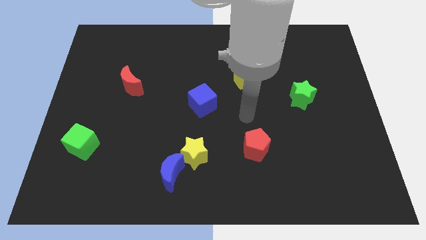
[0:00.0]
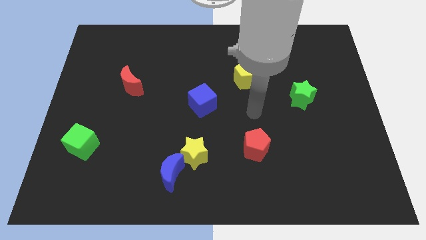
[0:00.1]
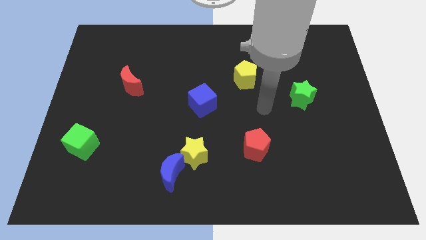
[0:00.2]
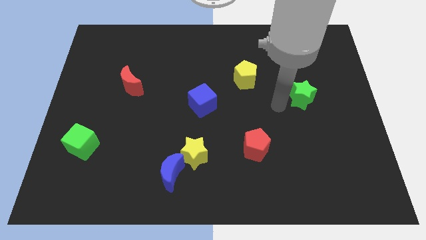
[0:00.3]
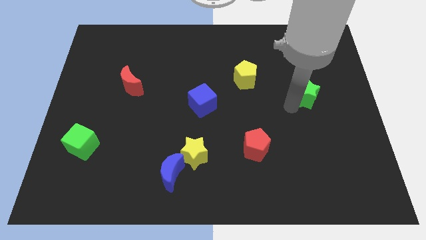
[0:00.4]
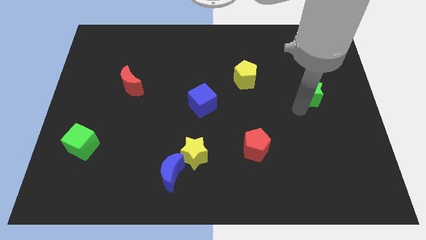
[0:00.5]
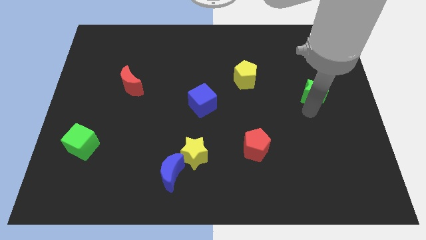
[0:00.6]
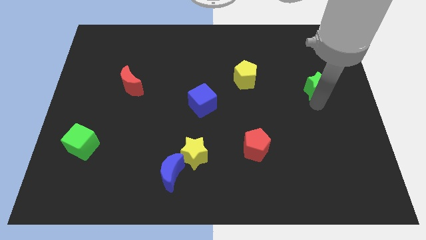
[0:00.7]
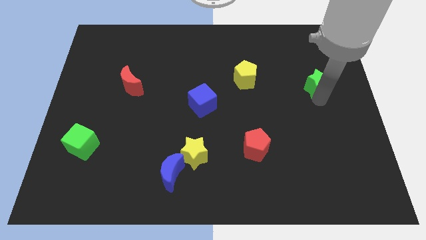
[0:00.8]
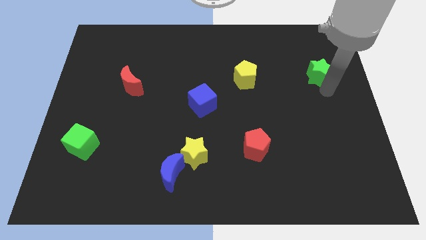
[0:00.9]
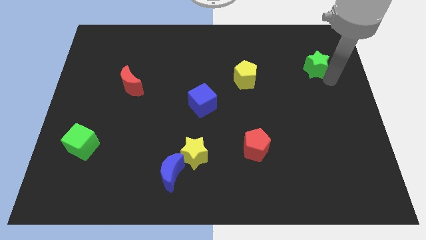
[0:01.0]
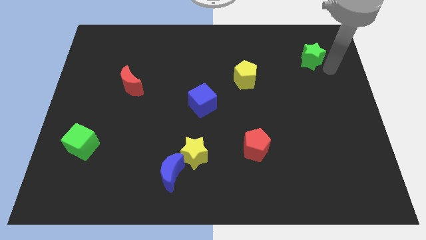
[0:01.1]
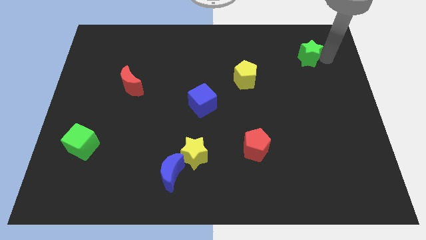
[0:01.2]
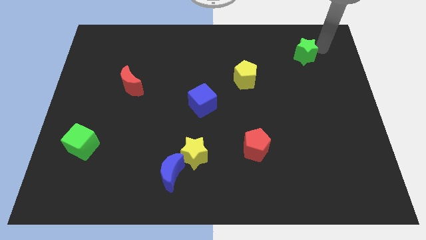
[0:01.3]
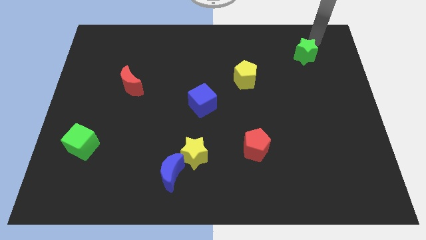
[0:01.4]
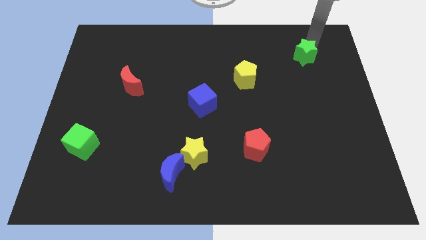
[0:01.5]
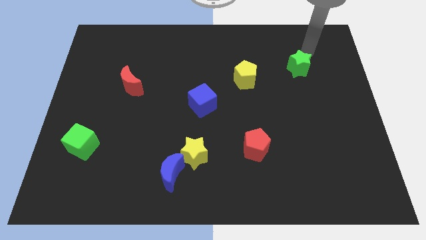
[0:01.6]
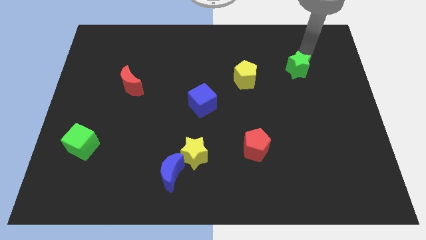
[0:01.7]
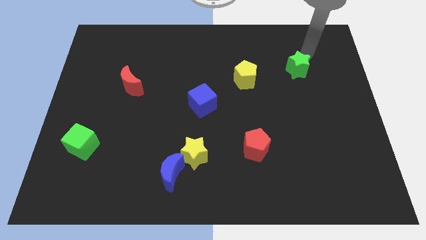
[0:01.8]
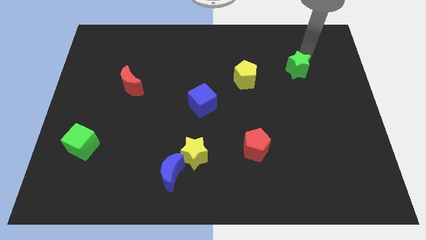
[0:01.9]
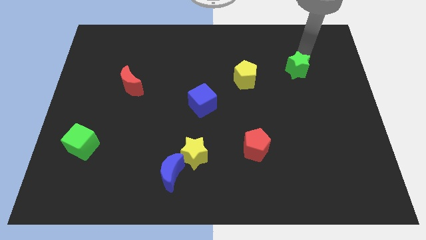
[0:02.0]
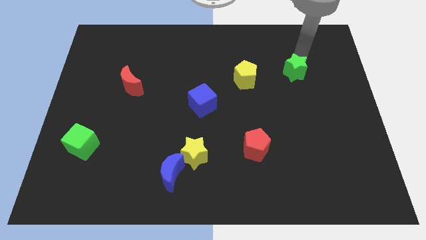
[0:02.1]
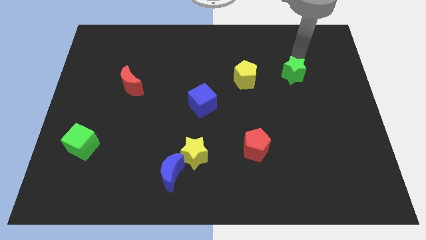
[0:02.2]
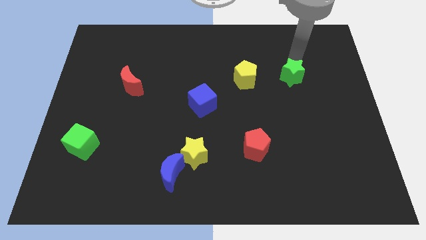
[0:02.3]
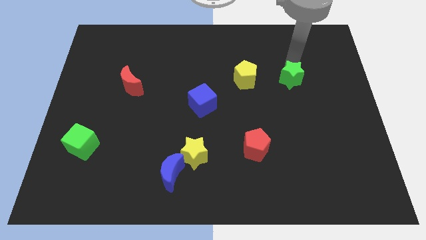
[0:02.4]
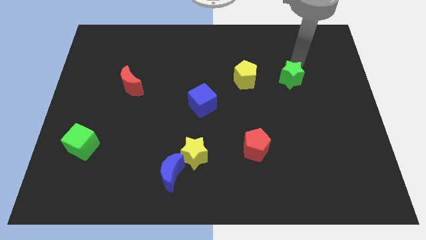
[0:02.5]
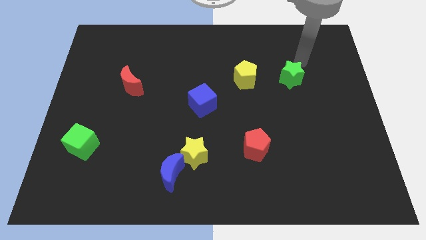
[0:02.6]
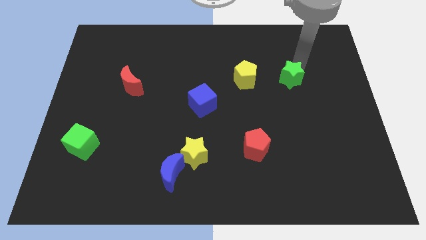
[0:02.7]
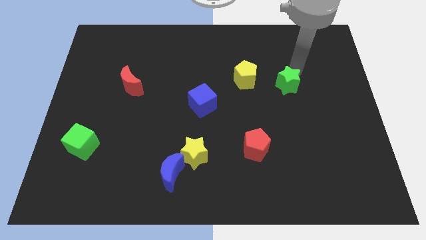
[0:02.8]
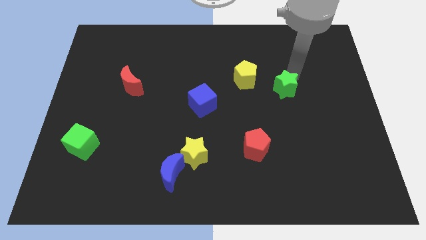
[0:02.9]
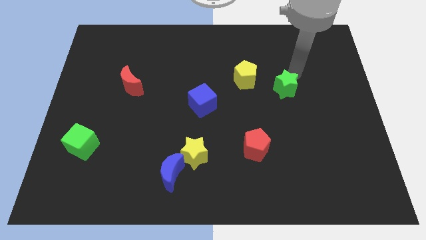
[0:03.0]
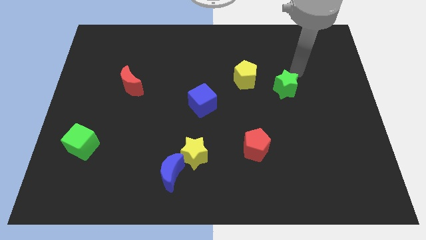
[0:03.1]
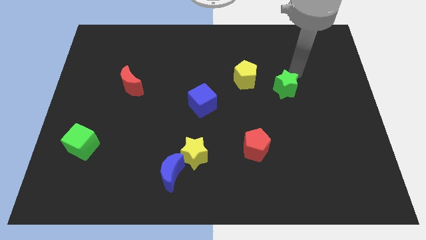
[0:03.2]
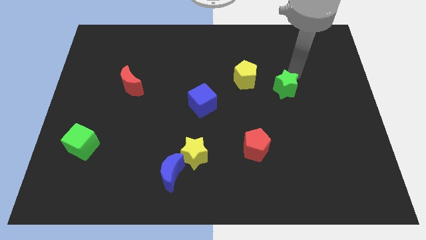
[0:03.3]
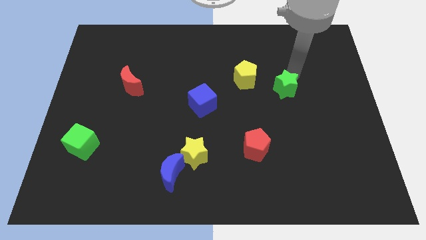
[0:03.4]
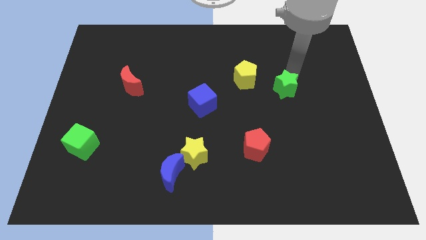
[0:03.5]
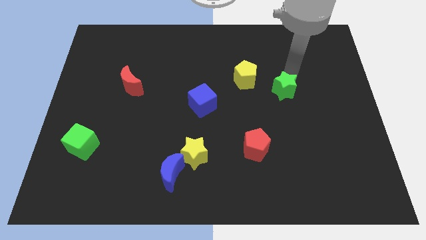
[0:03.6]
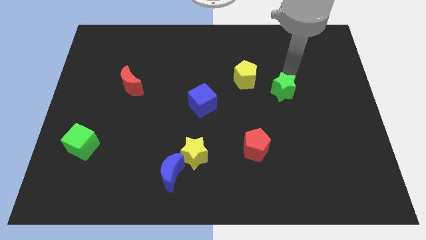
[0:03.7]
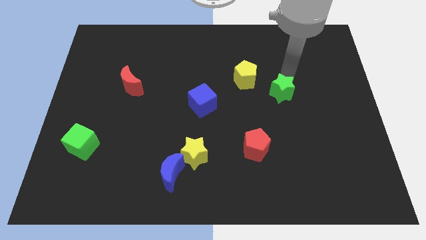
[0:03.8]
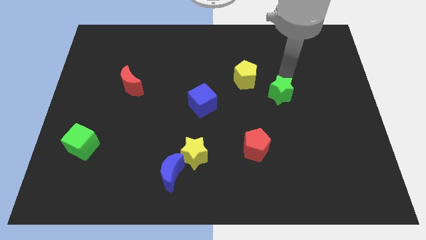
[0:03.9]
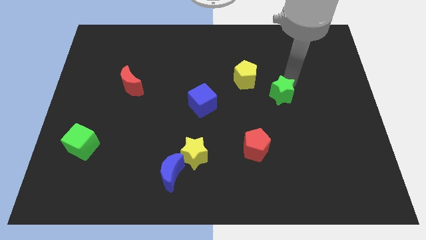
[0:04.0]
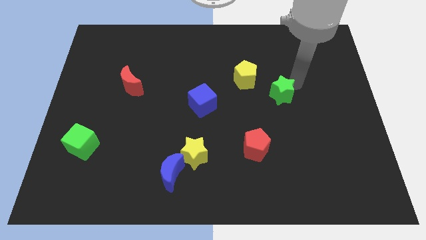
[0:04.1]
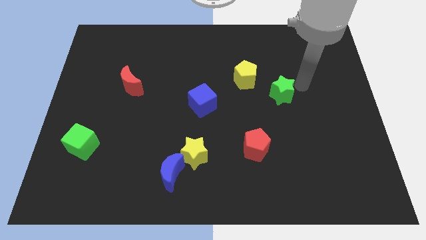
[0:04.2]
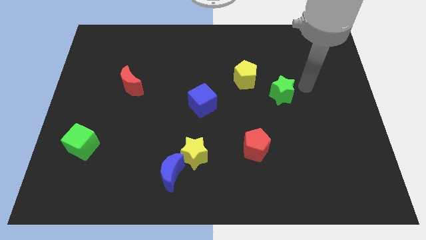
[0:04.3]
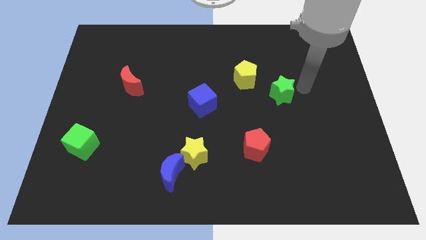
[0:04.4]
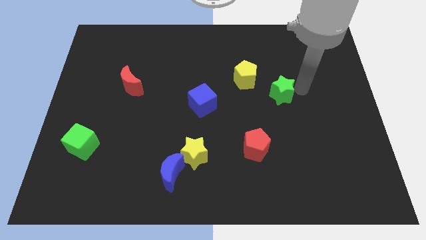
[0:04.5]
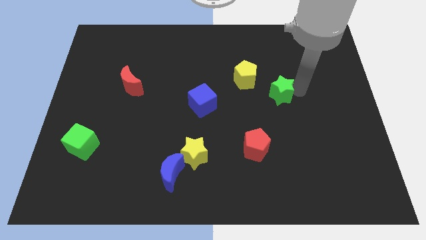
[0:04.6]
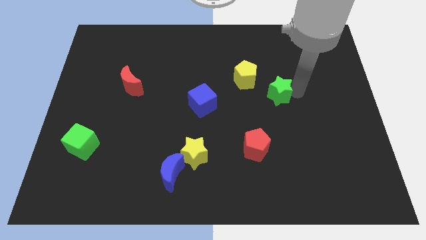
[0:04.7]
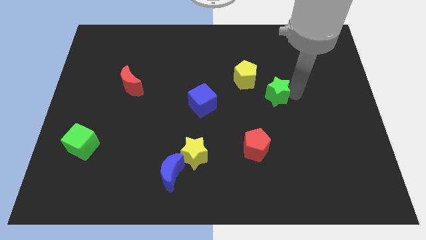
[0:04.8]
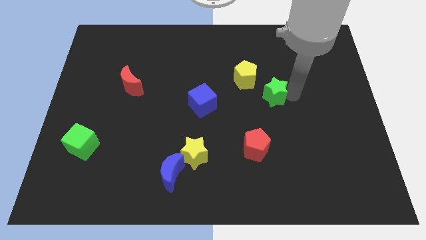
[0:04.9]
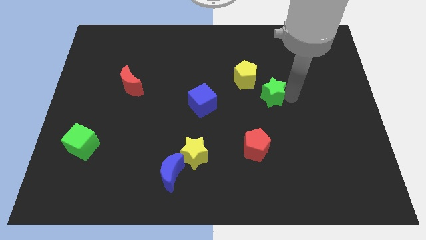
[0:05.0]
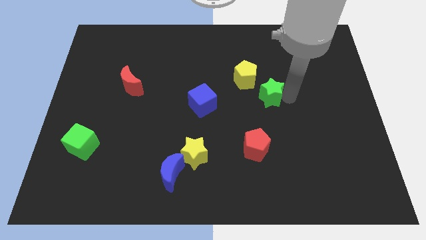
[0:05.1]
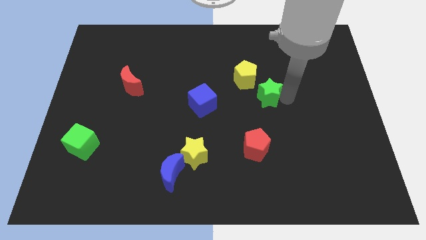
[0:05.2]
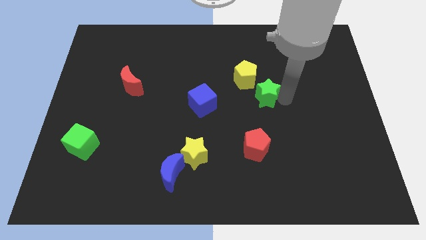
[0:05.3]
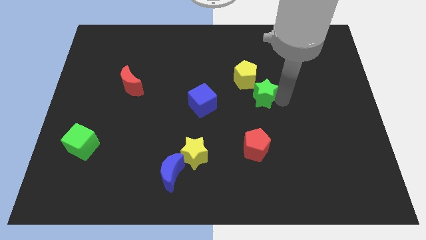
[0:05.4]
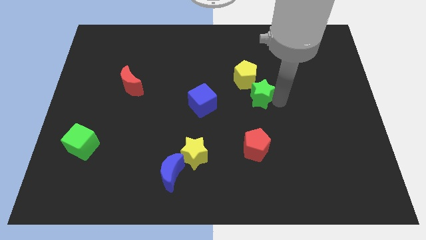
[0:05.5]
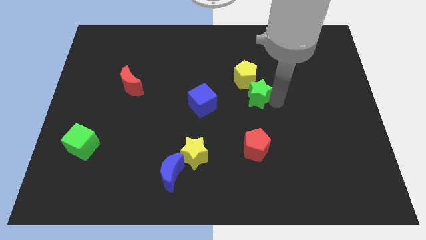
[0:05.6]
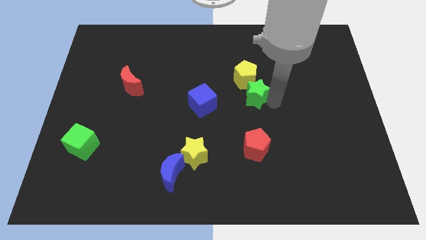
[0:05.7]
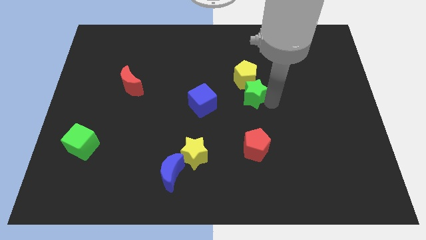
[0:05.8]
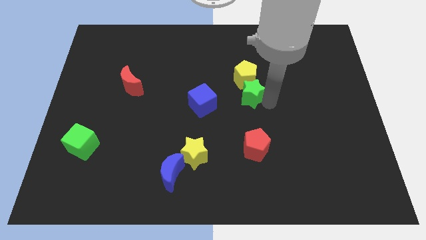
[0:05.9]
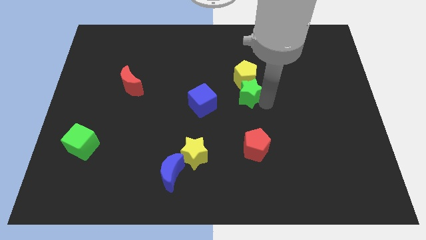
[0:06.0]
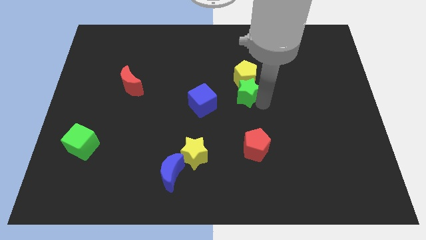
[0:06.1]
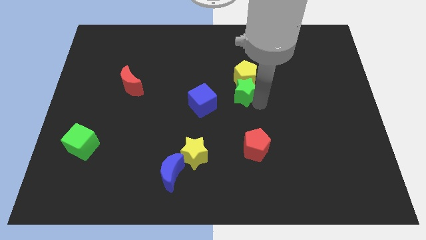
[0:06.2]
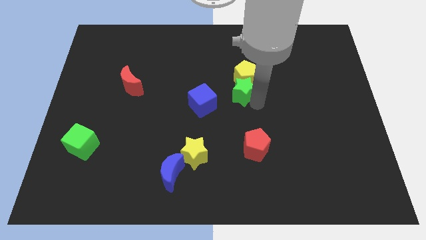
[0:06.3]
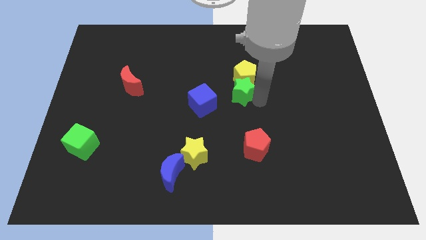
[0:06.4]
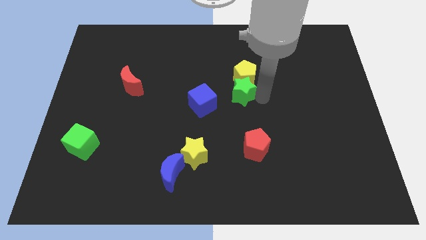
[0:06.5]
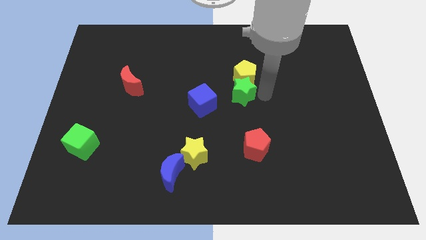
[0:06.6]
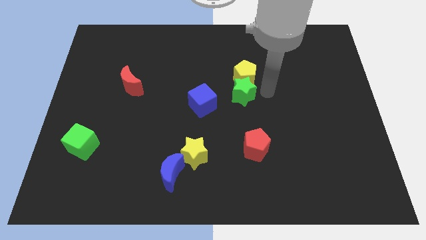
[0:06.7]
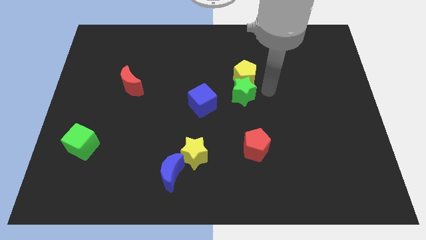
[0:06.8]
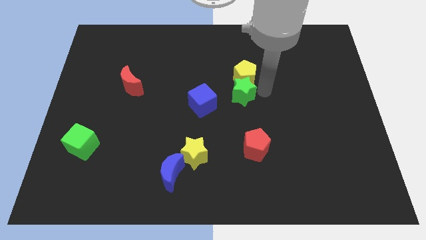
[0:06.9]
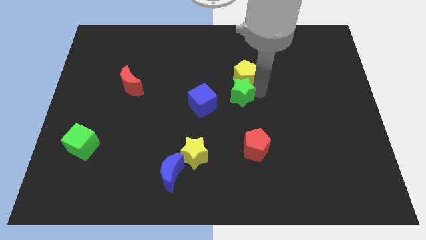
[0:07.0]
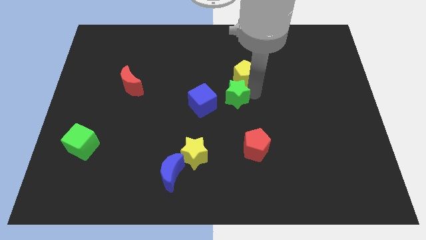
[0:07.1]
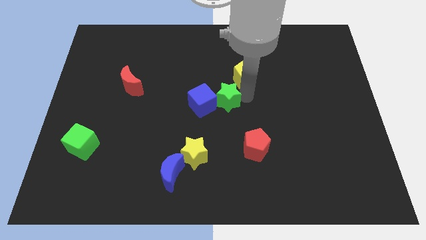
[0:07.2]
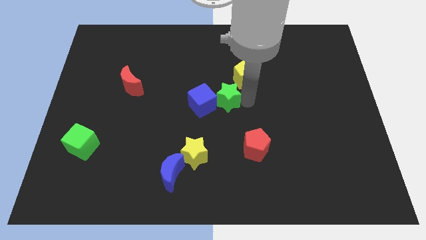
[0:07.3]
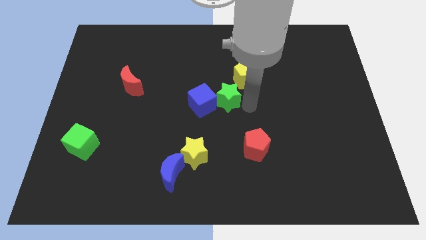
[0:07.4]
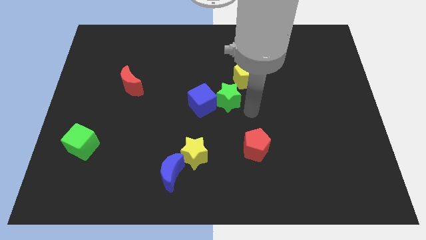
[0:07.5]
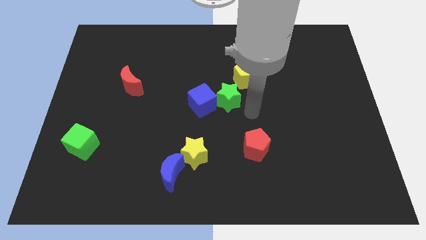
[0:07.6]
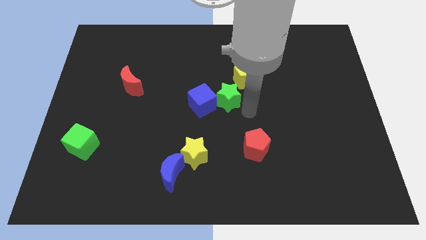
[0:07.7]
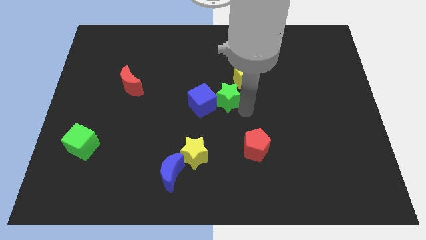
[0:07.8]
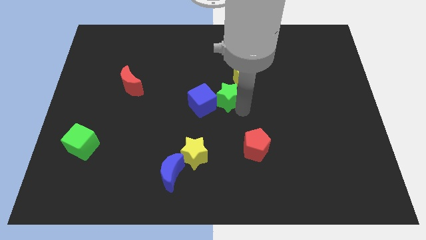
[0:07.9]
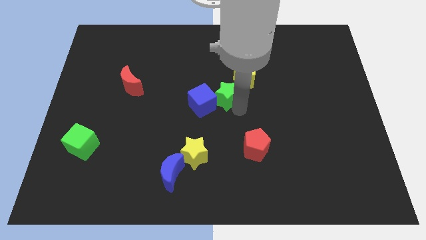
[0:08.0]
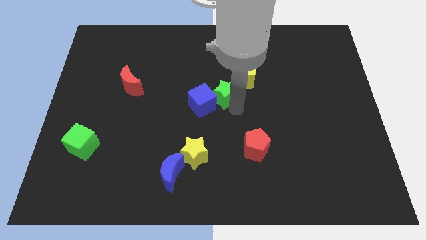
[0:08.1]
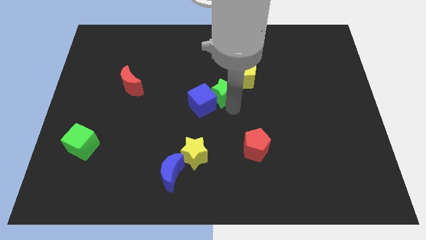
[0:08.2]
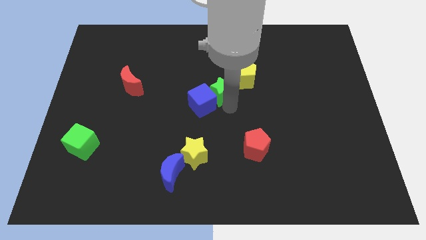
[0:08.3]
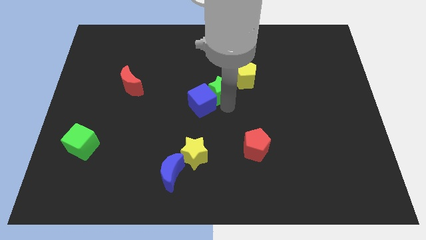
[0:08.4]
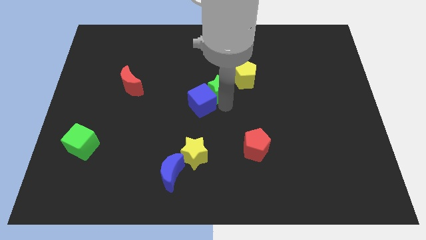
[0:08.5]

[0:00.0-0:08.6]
push the green star to the left
